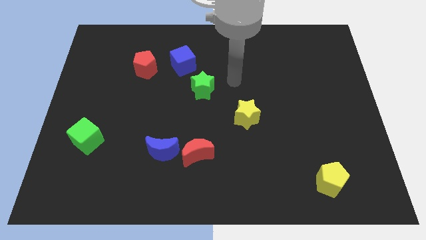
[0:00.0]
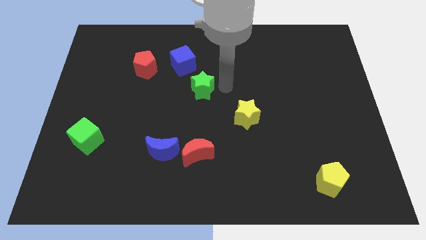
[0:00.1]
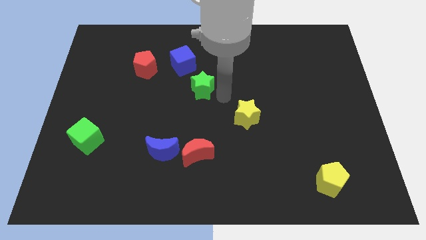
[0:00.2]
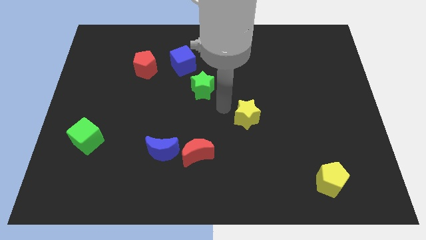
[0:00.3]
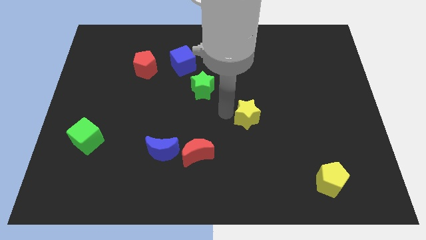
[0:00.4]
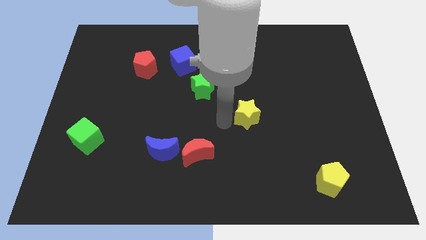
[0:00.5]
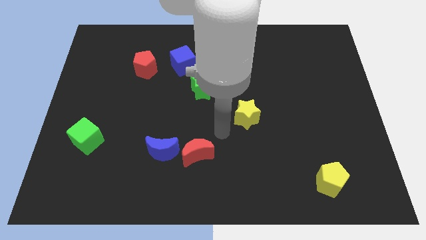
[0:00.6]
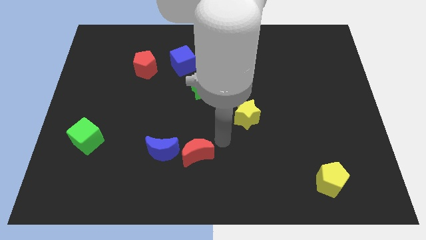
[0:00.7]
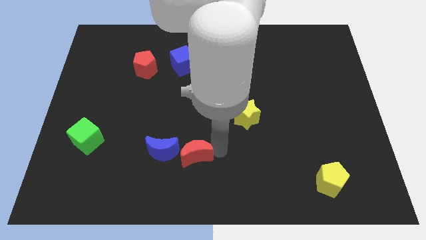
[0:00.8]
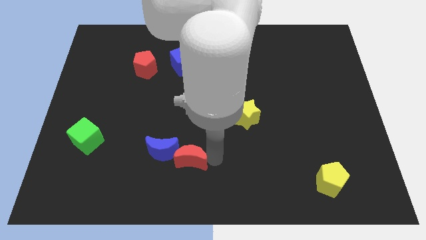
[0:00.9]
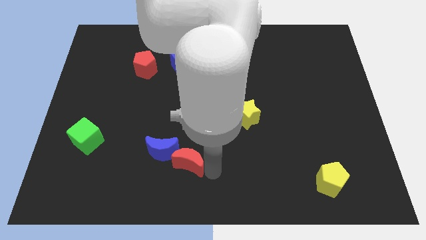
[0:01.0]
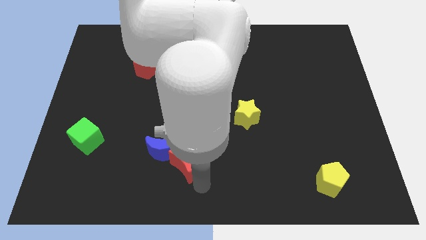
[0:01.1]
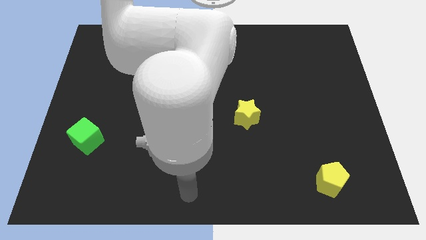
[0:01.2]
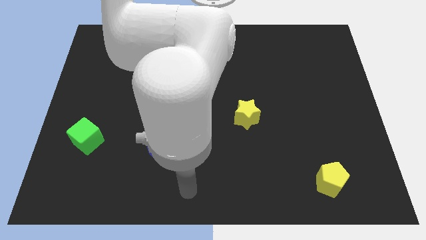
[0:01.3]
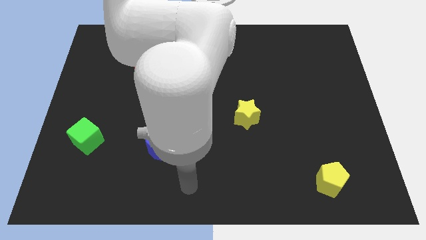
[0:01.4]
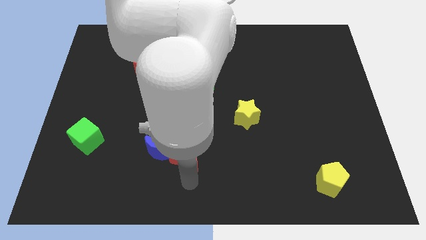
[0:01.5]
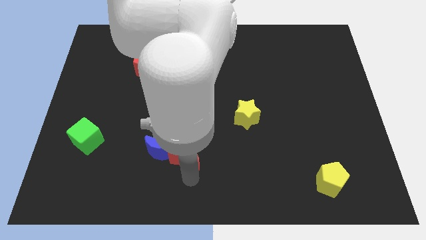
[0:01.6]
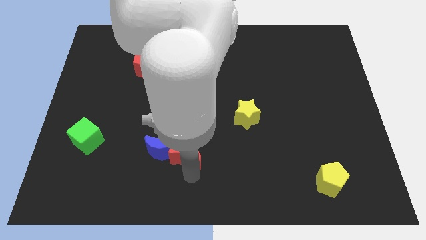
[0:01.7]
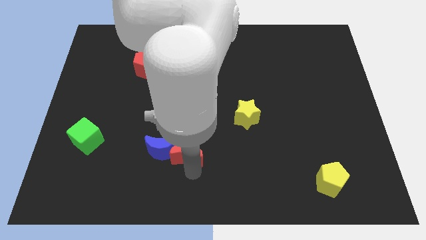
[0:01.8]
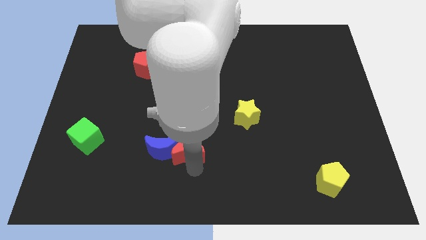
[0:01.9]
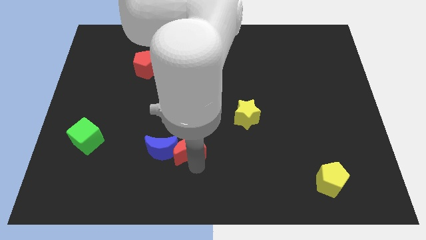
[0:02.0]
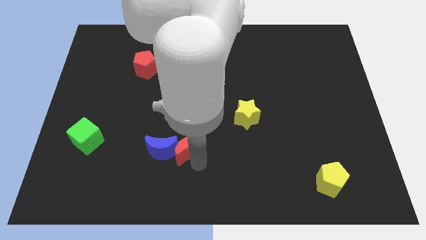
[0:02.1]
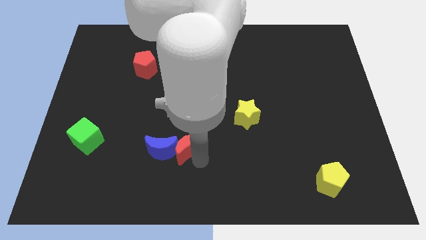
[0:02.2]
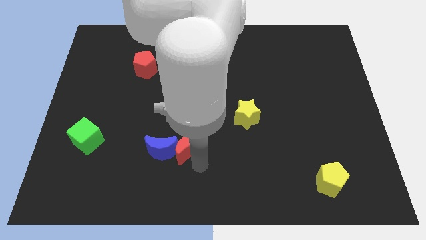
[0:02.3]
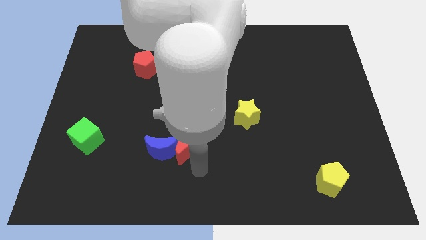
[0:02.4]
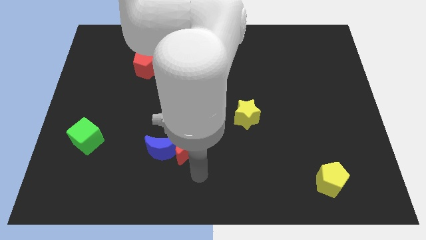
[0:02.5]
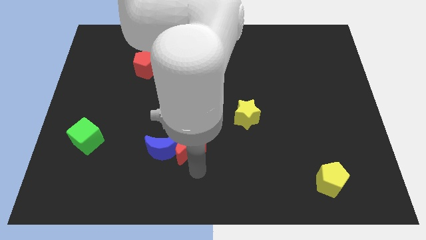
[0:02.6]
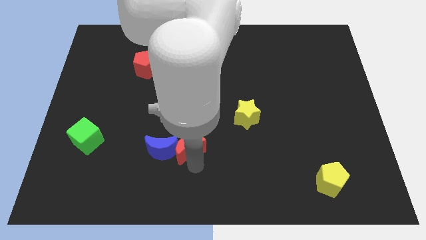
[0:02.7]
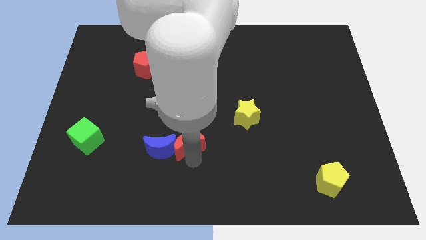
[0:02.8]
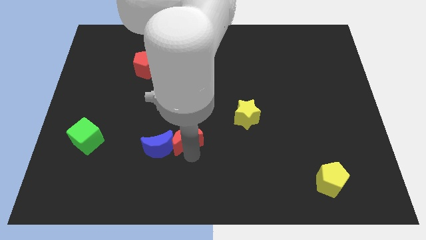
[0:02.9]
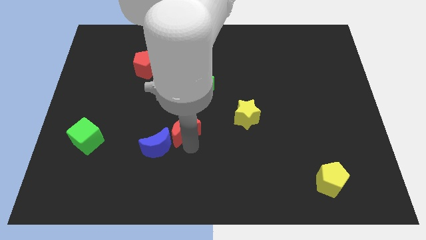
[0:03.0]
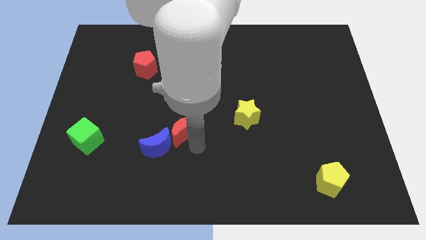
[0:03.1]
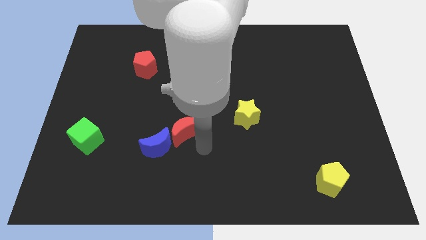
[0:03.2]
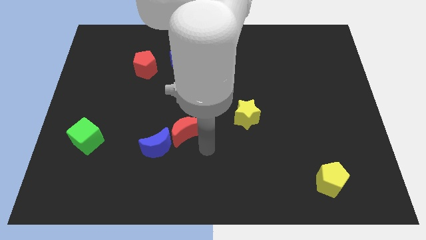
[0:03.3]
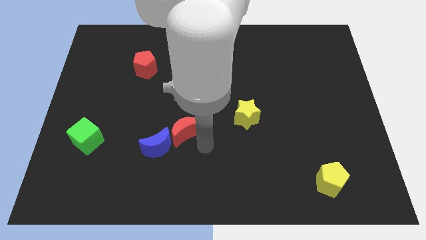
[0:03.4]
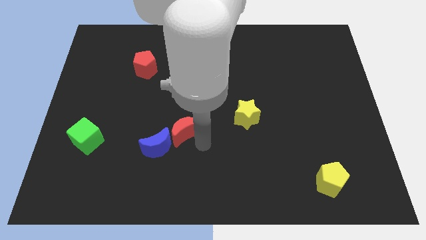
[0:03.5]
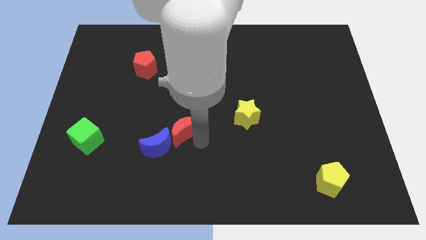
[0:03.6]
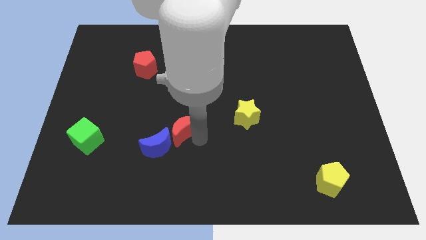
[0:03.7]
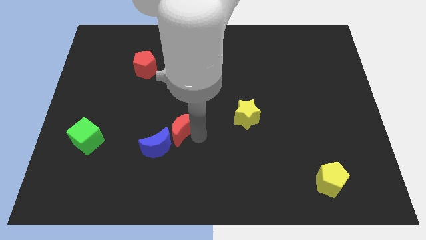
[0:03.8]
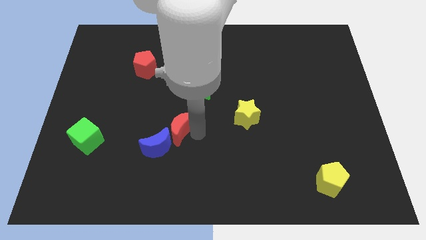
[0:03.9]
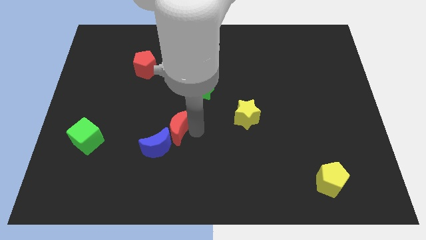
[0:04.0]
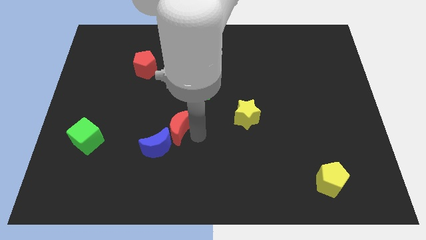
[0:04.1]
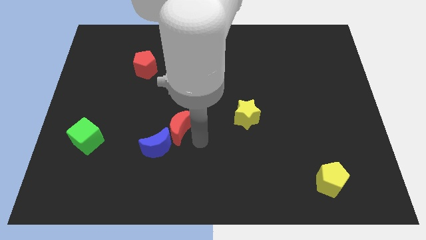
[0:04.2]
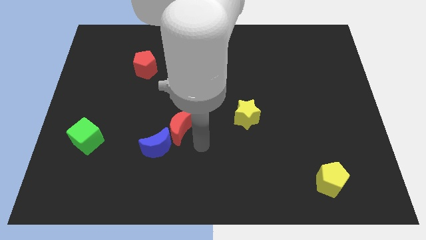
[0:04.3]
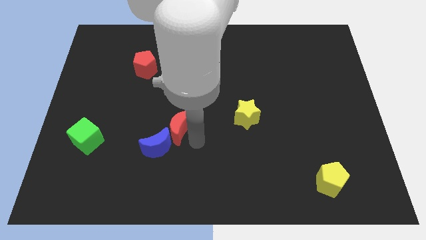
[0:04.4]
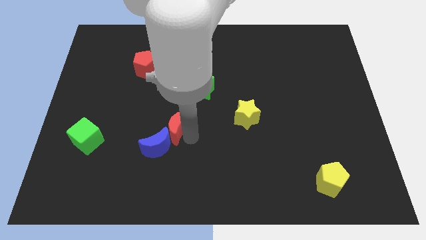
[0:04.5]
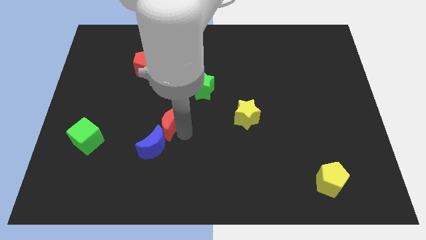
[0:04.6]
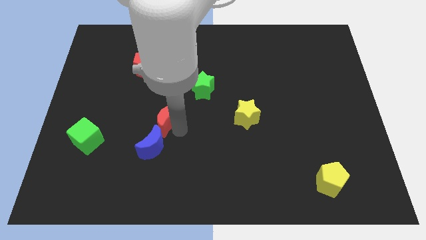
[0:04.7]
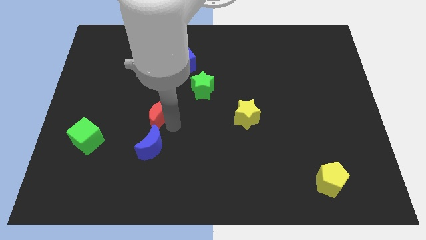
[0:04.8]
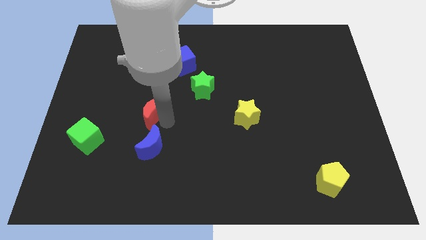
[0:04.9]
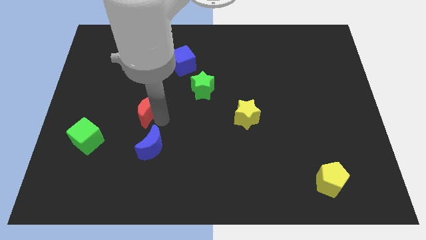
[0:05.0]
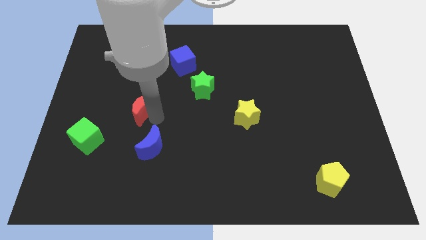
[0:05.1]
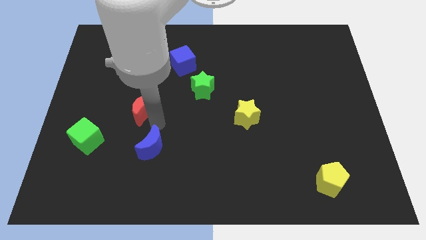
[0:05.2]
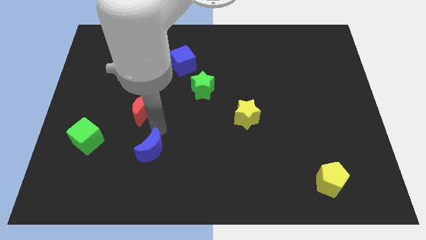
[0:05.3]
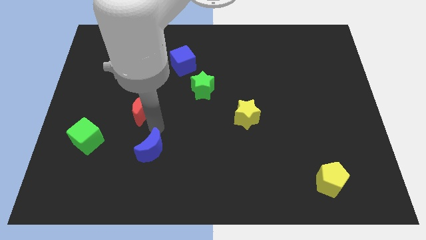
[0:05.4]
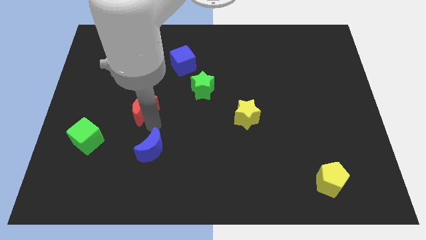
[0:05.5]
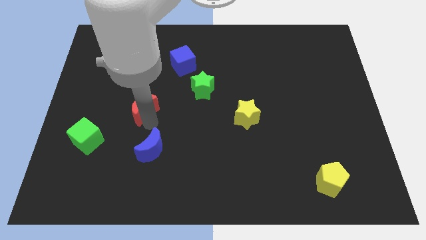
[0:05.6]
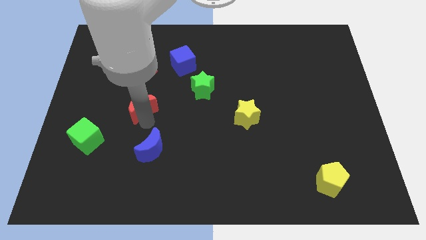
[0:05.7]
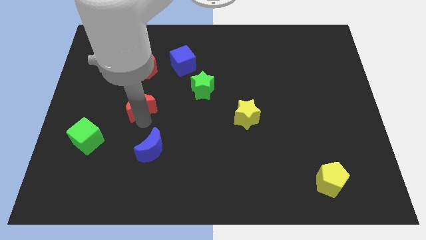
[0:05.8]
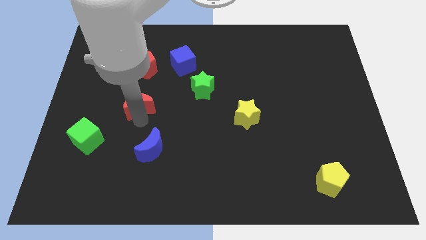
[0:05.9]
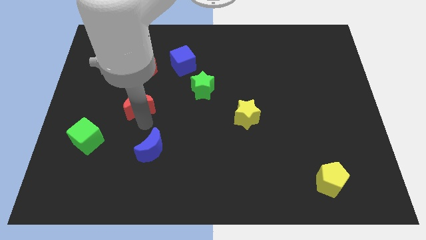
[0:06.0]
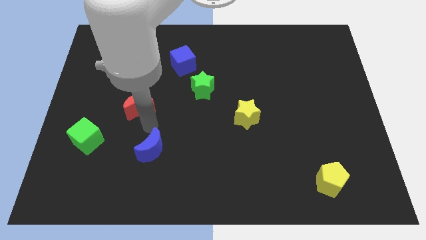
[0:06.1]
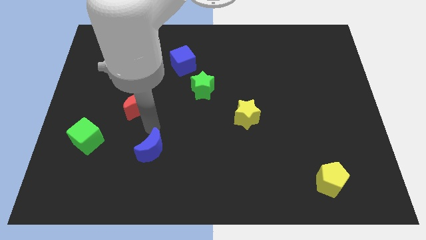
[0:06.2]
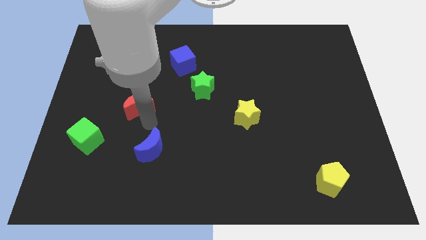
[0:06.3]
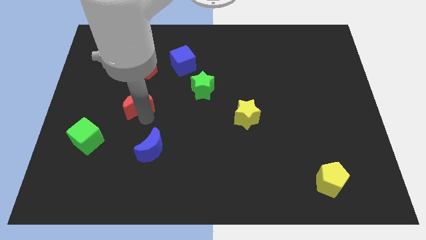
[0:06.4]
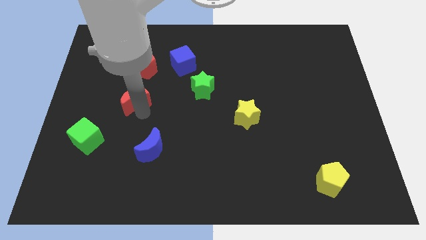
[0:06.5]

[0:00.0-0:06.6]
push the red moon up and left diagonally

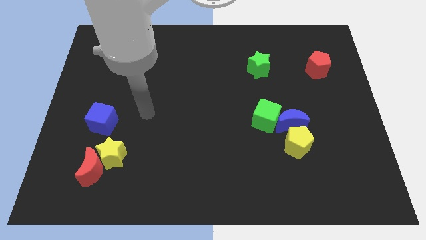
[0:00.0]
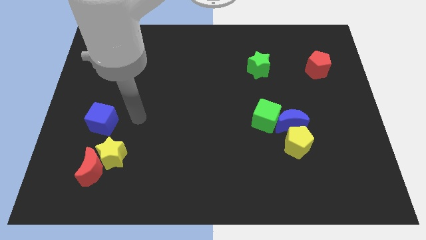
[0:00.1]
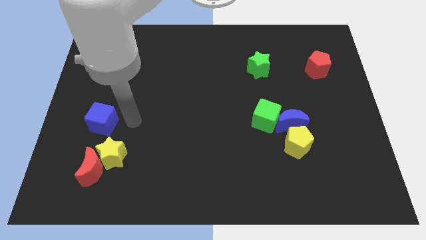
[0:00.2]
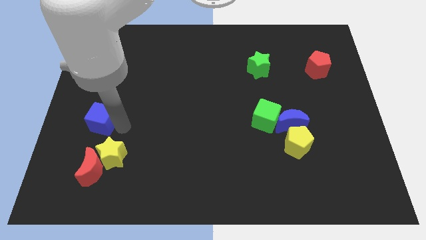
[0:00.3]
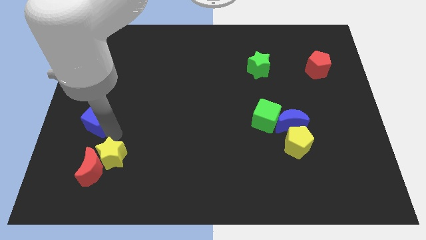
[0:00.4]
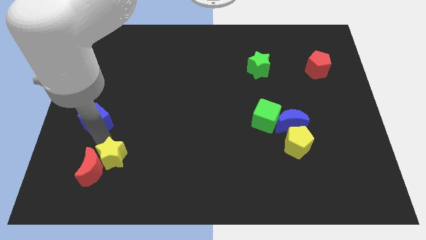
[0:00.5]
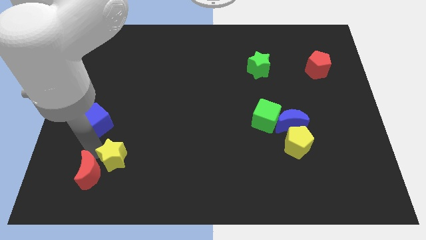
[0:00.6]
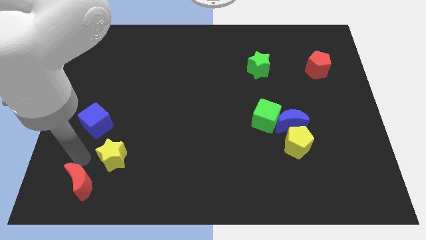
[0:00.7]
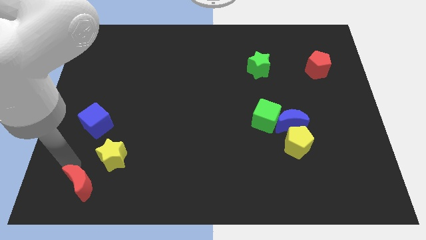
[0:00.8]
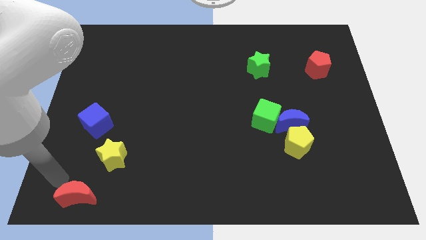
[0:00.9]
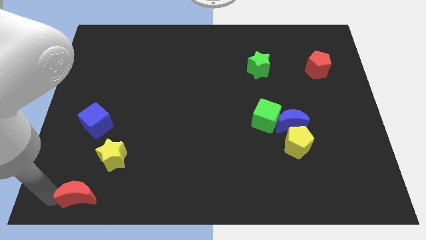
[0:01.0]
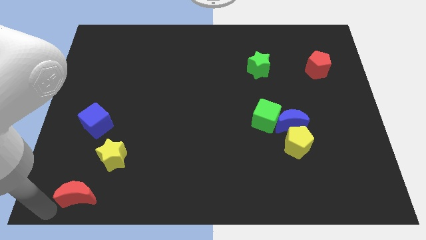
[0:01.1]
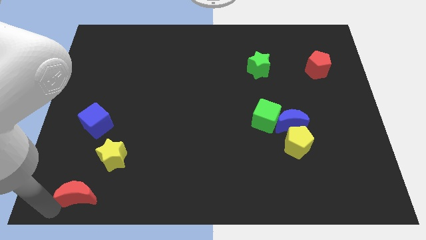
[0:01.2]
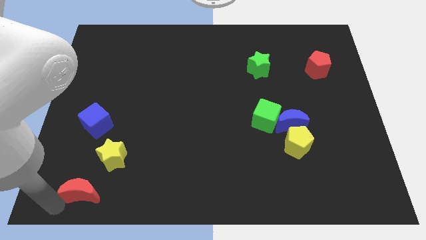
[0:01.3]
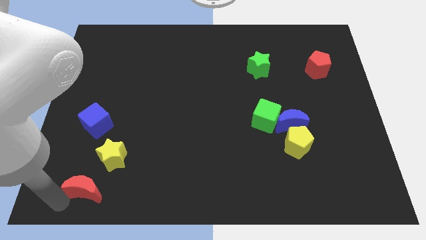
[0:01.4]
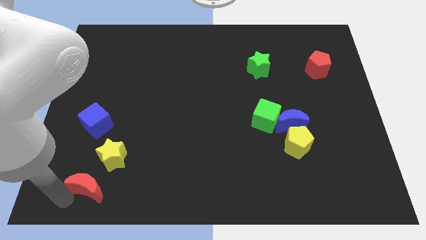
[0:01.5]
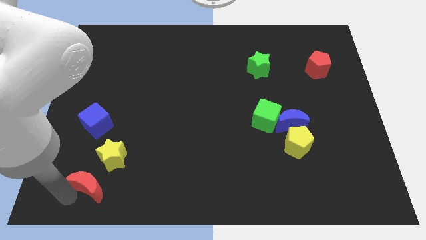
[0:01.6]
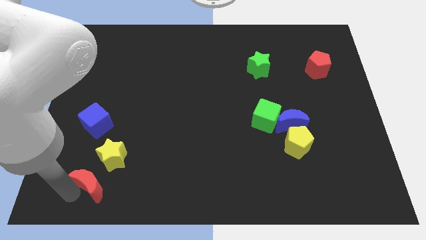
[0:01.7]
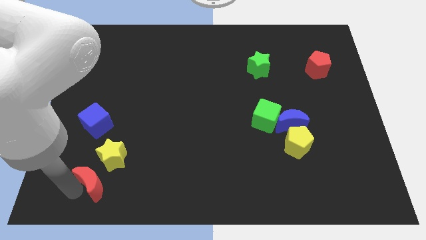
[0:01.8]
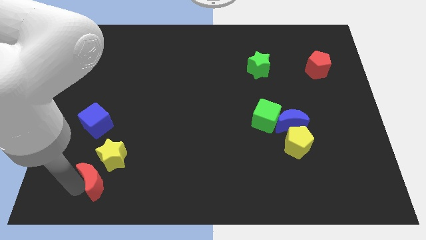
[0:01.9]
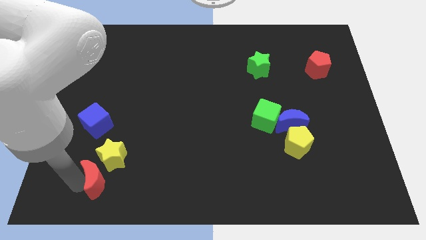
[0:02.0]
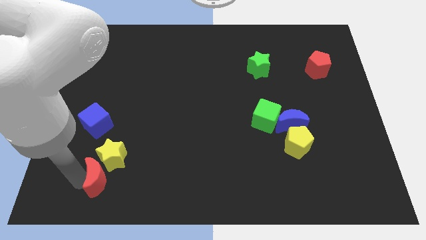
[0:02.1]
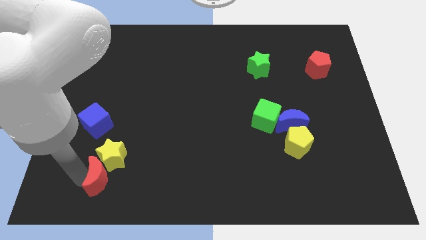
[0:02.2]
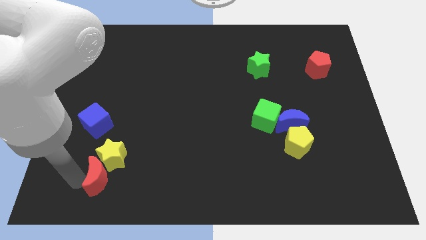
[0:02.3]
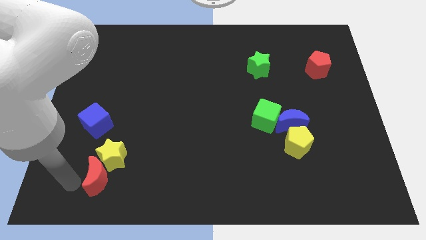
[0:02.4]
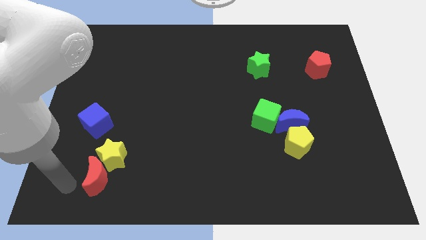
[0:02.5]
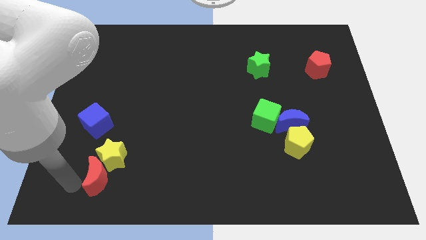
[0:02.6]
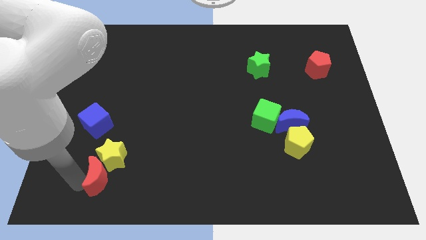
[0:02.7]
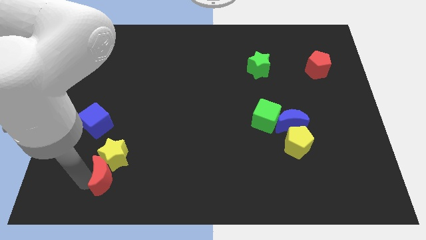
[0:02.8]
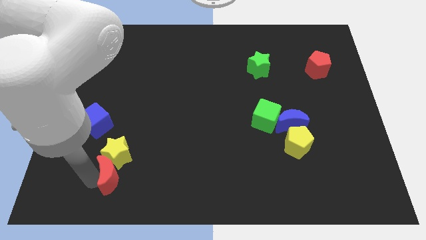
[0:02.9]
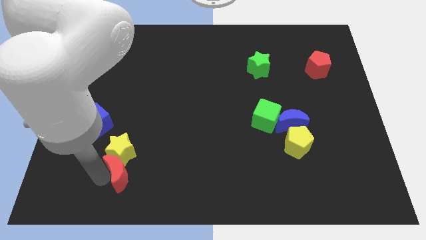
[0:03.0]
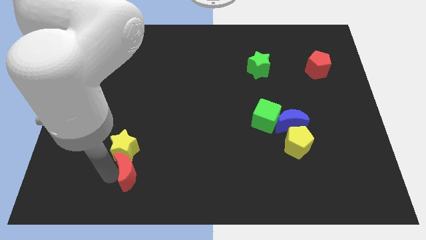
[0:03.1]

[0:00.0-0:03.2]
slightly push the red moon right
